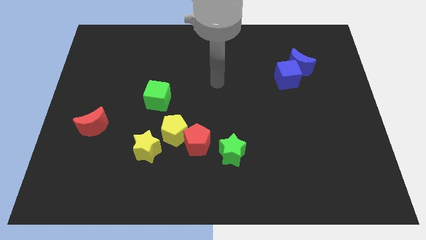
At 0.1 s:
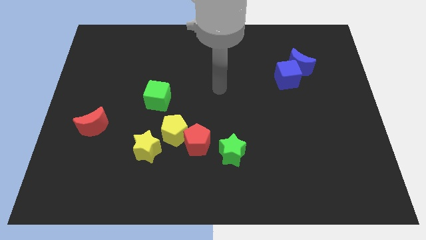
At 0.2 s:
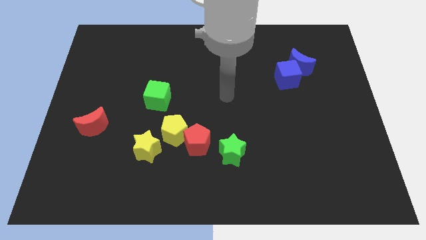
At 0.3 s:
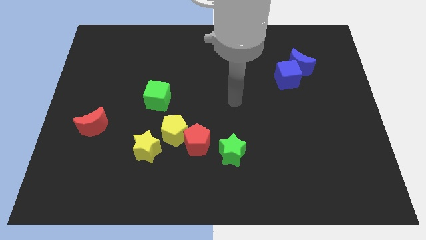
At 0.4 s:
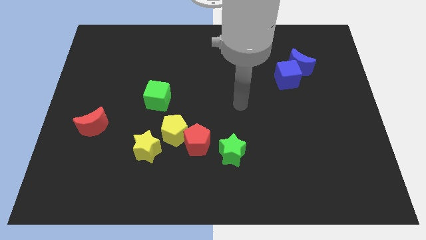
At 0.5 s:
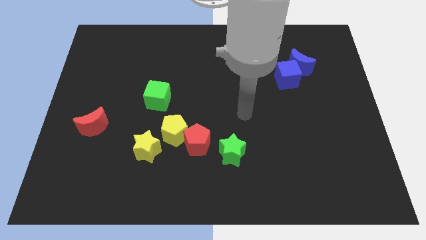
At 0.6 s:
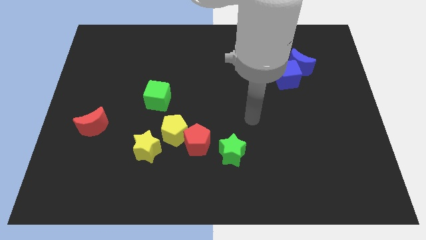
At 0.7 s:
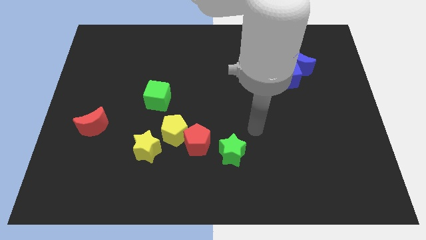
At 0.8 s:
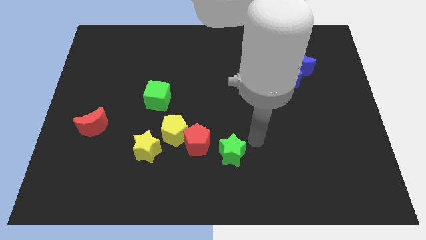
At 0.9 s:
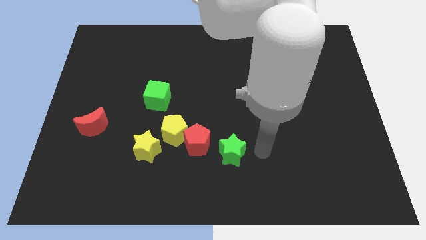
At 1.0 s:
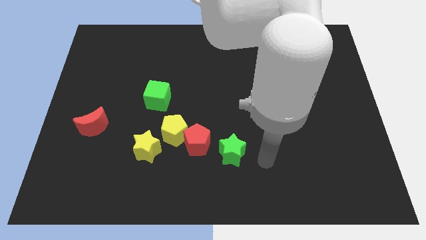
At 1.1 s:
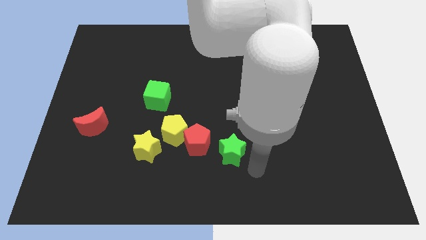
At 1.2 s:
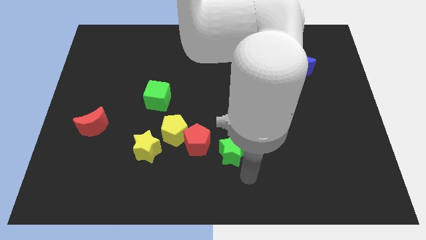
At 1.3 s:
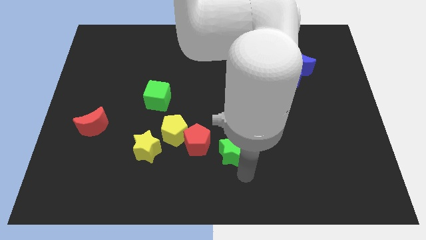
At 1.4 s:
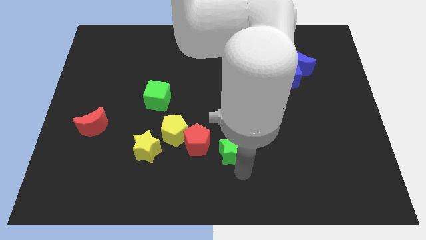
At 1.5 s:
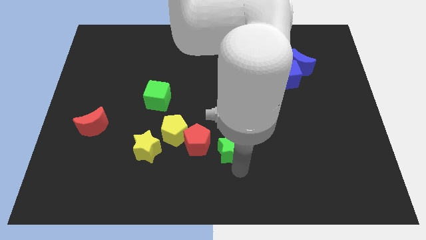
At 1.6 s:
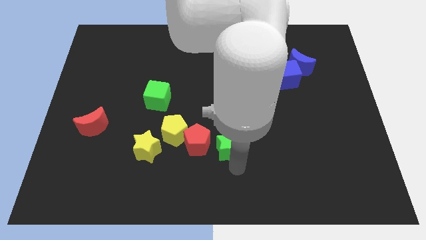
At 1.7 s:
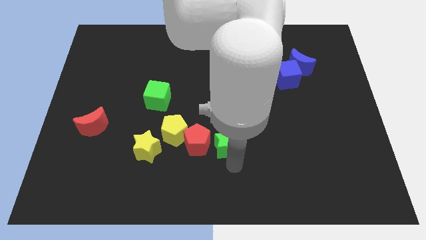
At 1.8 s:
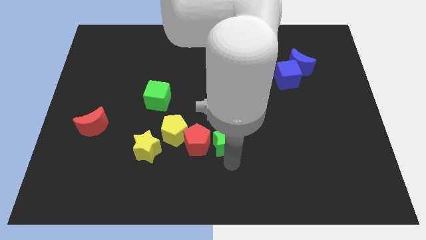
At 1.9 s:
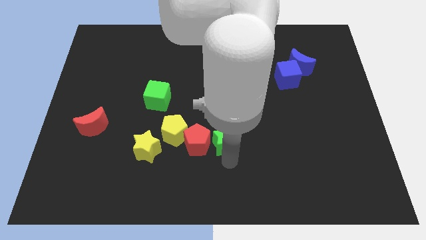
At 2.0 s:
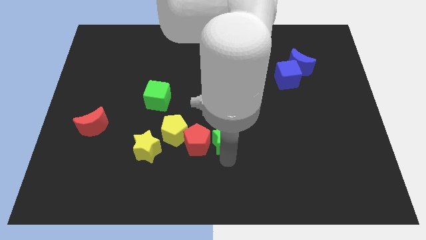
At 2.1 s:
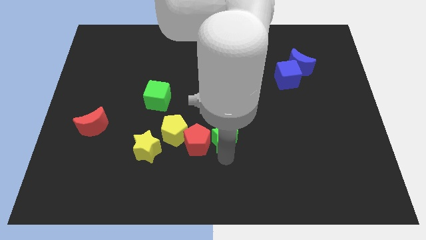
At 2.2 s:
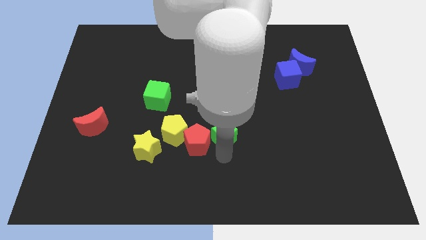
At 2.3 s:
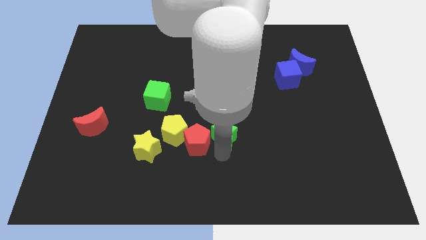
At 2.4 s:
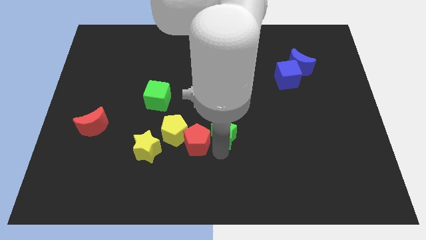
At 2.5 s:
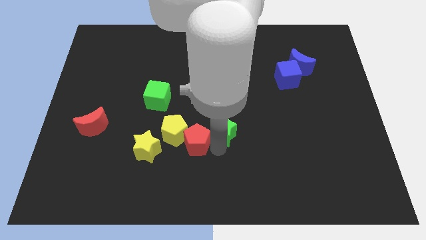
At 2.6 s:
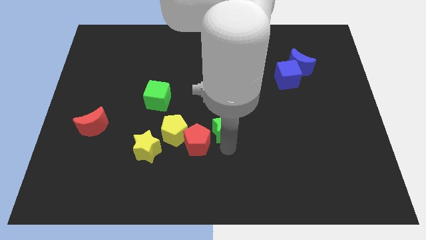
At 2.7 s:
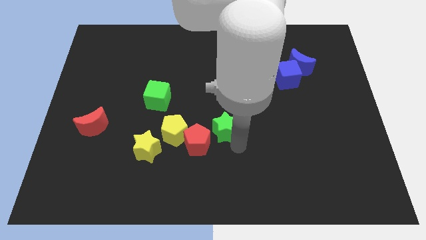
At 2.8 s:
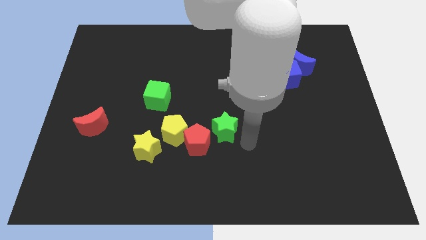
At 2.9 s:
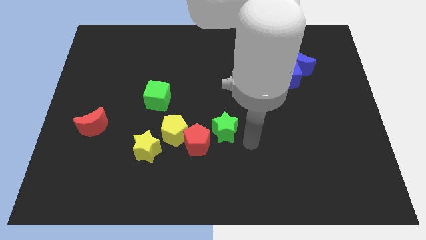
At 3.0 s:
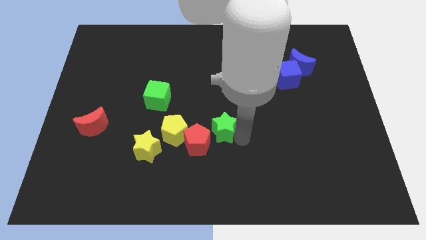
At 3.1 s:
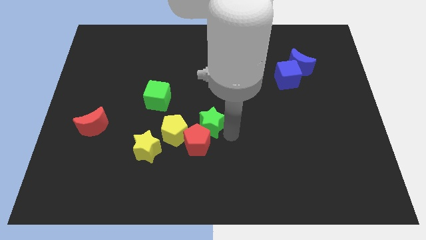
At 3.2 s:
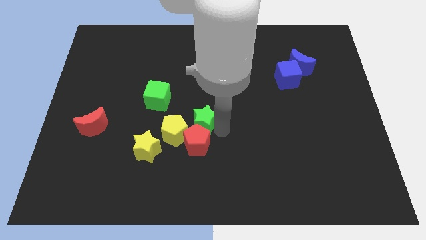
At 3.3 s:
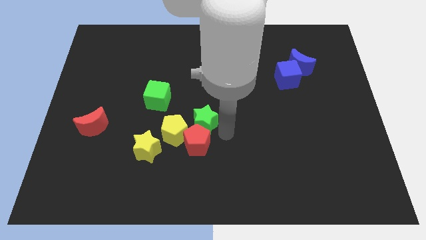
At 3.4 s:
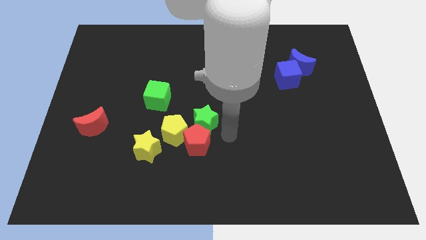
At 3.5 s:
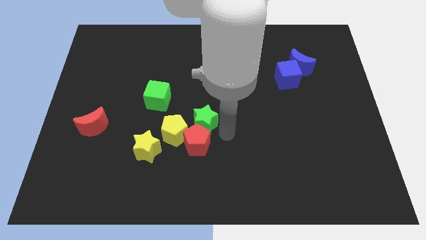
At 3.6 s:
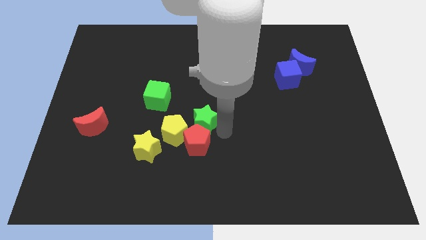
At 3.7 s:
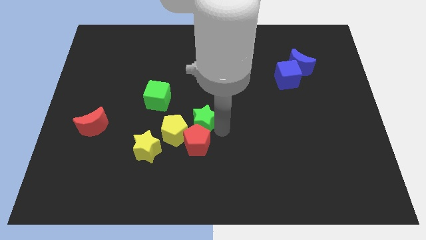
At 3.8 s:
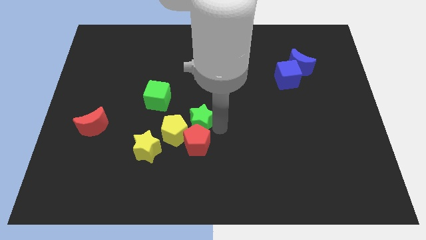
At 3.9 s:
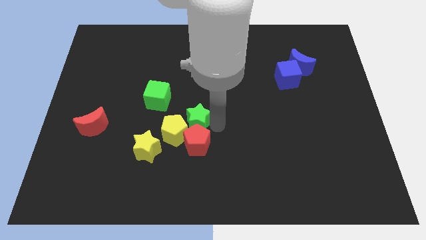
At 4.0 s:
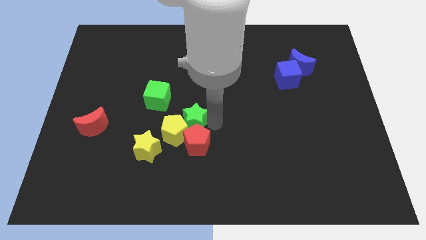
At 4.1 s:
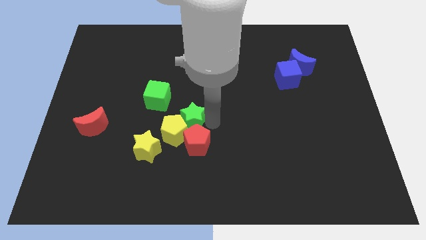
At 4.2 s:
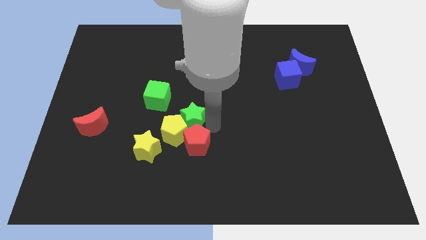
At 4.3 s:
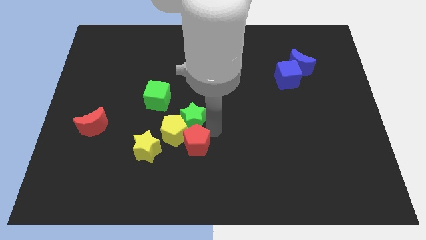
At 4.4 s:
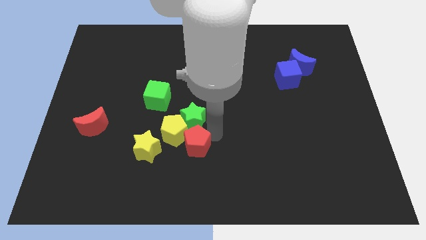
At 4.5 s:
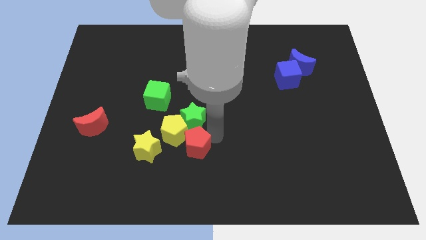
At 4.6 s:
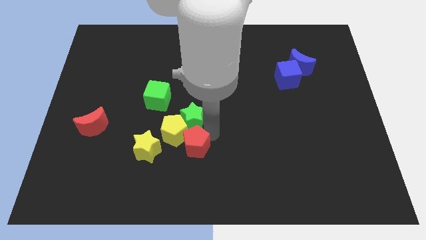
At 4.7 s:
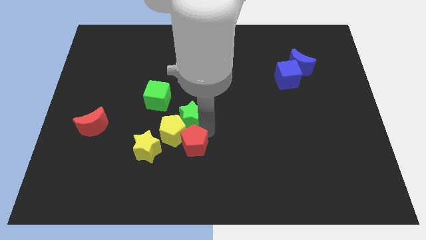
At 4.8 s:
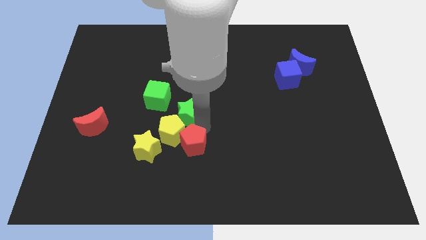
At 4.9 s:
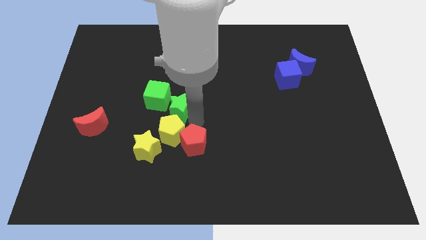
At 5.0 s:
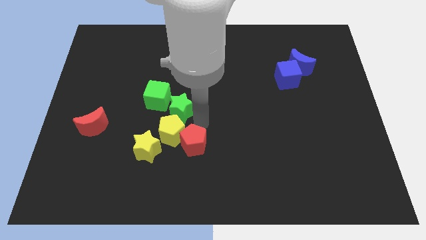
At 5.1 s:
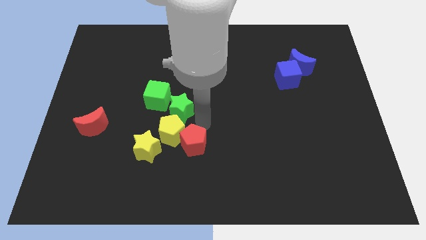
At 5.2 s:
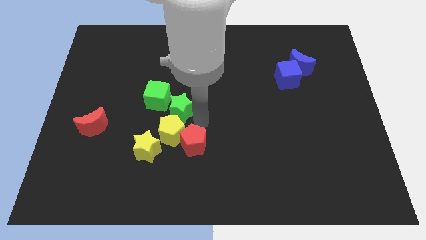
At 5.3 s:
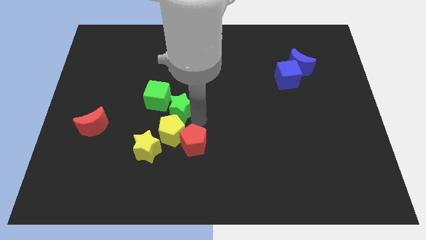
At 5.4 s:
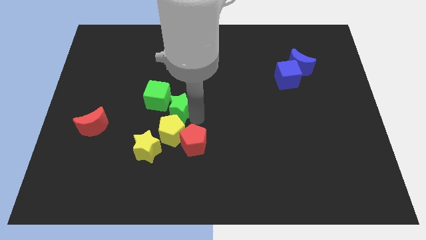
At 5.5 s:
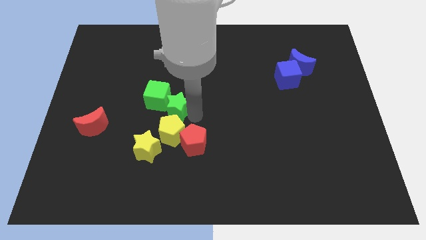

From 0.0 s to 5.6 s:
push the green star towards the green cube
